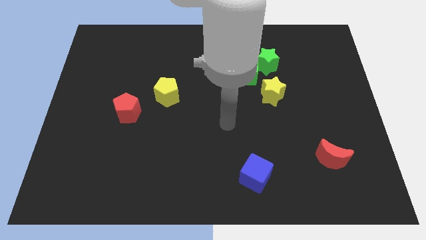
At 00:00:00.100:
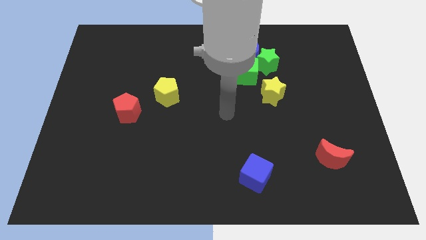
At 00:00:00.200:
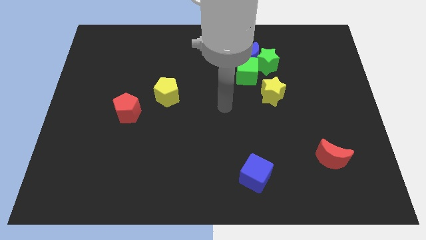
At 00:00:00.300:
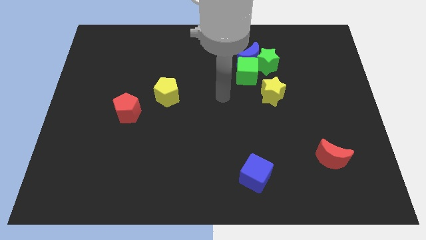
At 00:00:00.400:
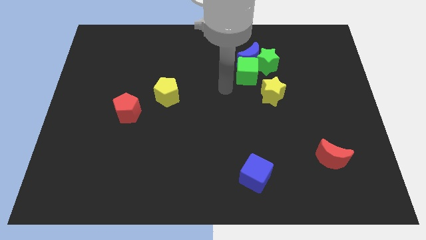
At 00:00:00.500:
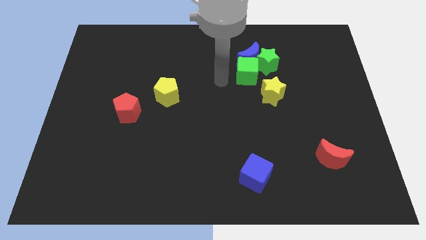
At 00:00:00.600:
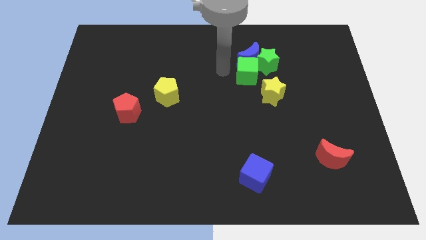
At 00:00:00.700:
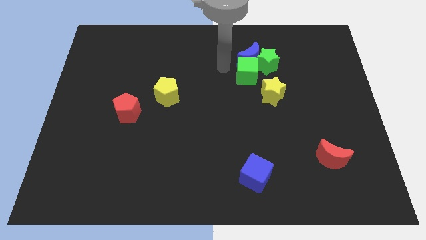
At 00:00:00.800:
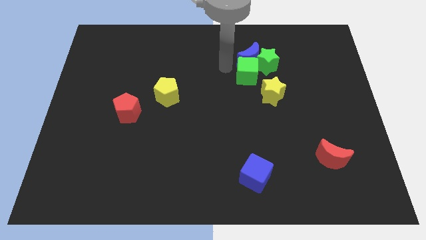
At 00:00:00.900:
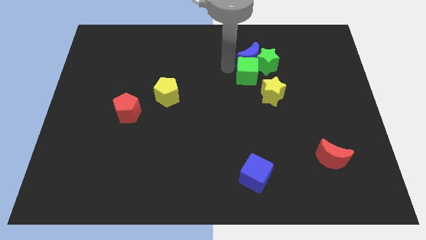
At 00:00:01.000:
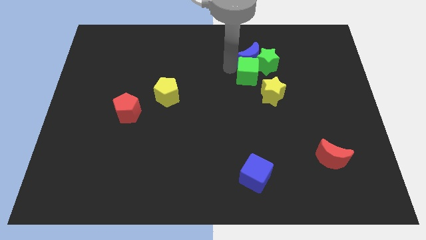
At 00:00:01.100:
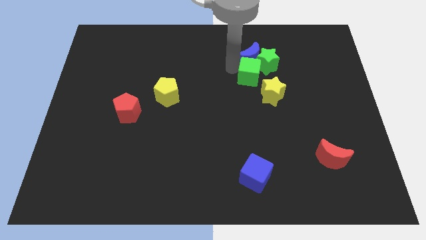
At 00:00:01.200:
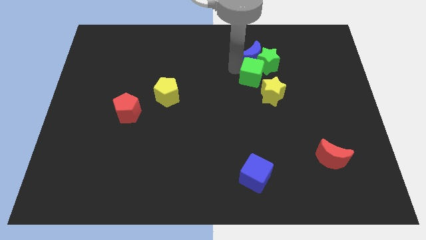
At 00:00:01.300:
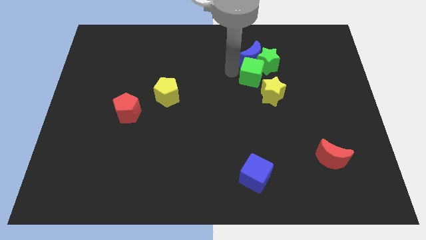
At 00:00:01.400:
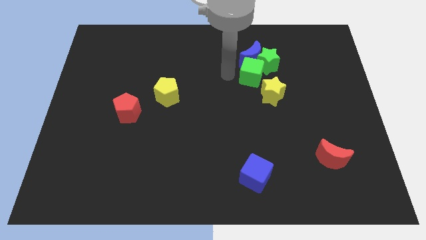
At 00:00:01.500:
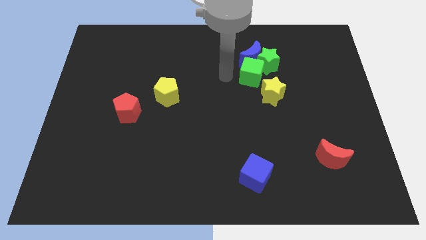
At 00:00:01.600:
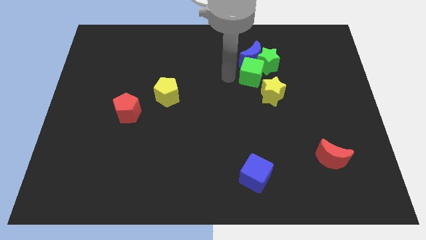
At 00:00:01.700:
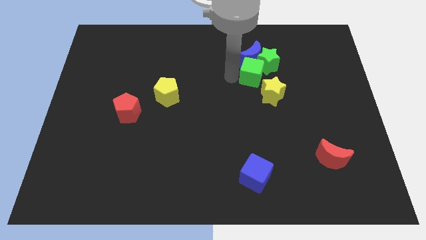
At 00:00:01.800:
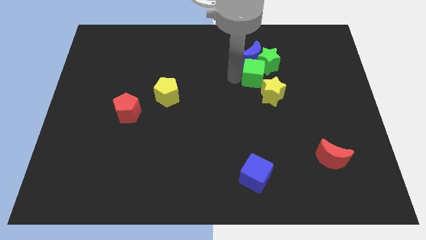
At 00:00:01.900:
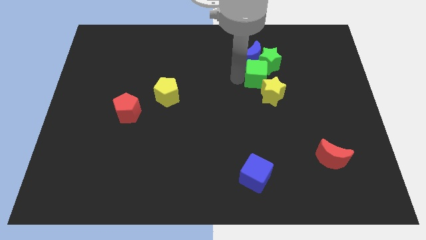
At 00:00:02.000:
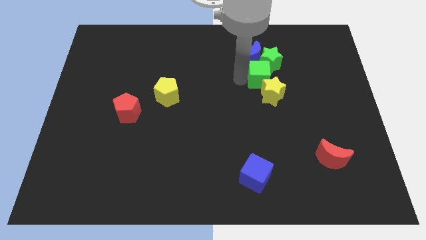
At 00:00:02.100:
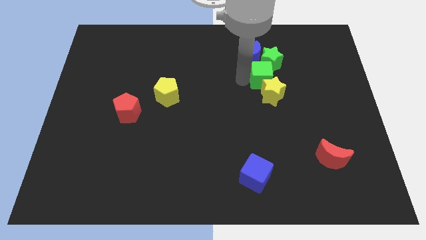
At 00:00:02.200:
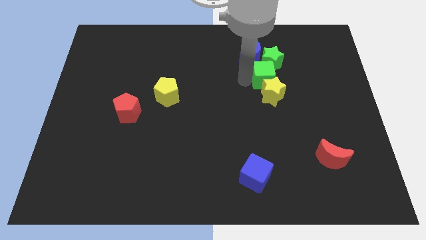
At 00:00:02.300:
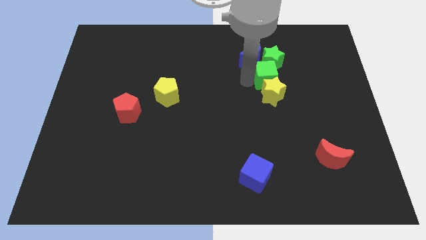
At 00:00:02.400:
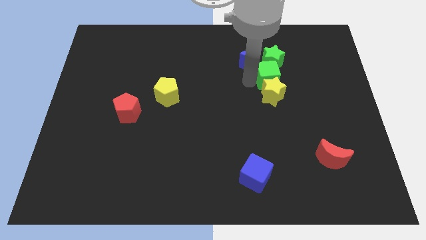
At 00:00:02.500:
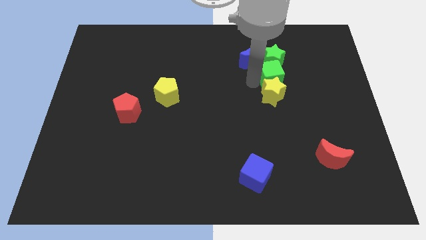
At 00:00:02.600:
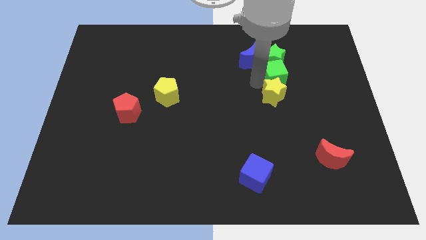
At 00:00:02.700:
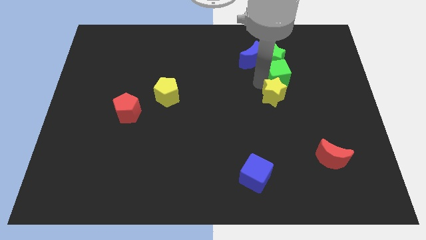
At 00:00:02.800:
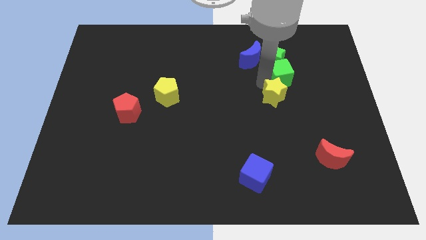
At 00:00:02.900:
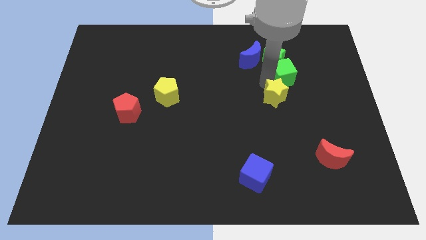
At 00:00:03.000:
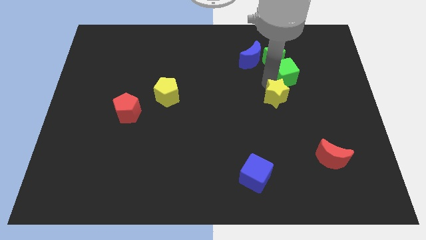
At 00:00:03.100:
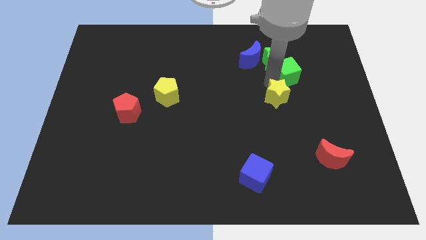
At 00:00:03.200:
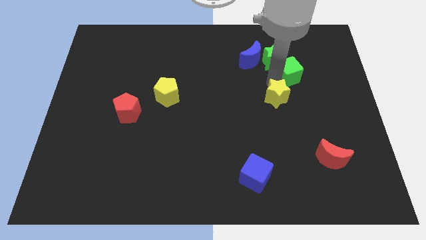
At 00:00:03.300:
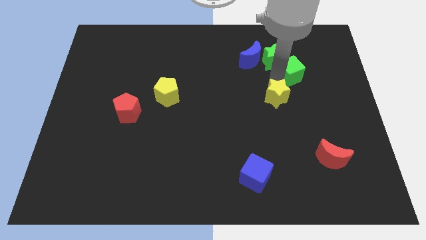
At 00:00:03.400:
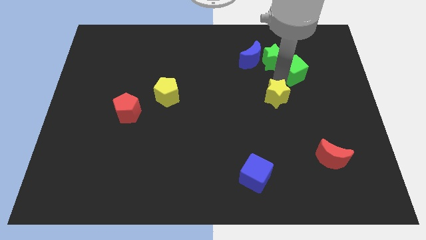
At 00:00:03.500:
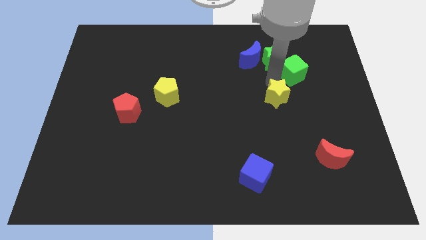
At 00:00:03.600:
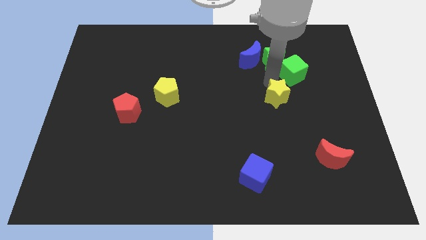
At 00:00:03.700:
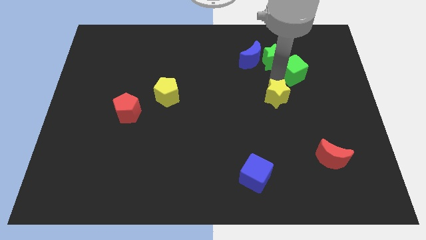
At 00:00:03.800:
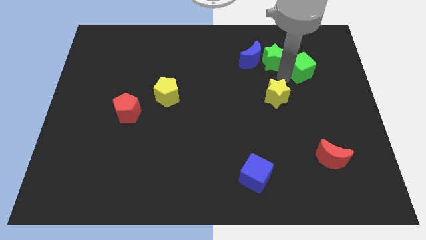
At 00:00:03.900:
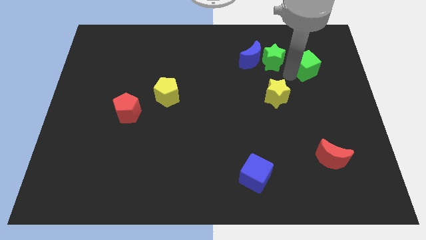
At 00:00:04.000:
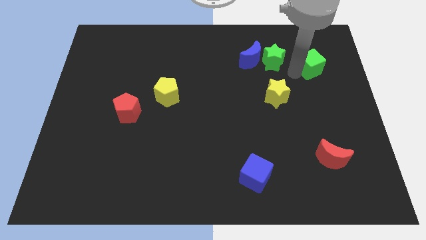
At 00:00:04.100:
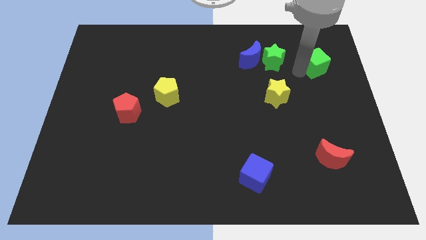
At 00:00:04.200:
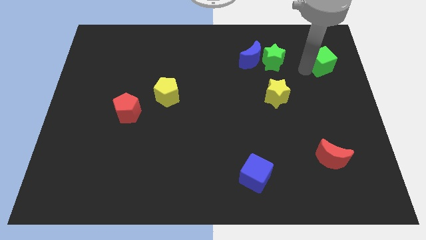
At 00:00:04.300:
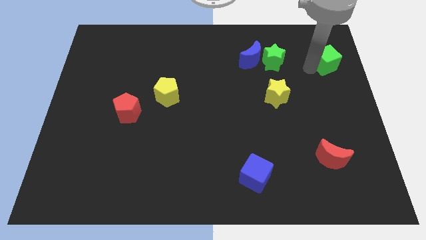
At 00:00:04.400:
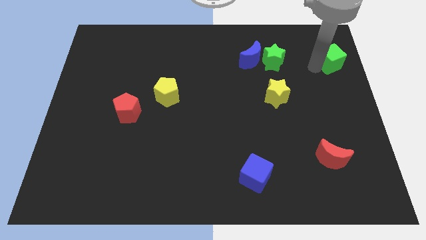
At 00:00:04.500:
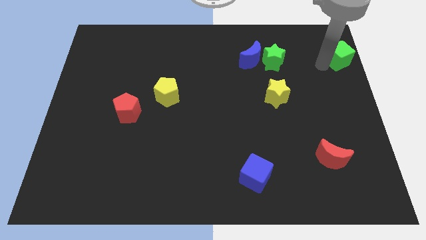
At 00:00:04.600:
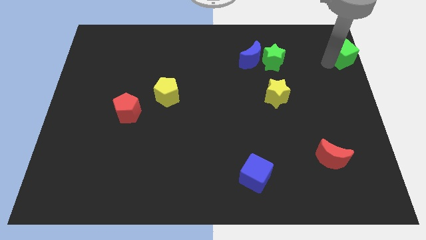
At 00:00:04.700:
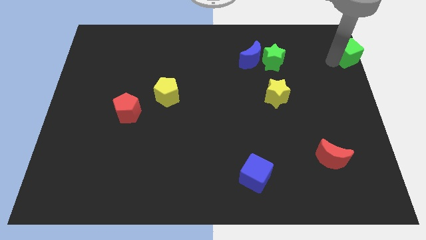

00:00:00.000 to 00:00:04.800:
slide the green cube to the top right corner

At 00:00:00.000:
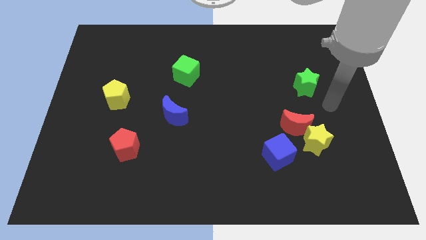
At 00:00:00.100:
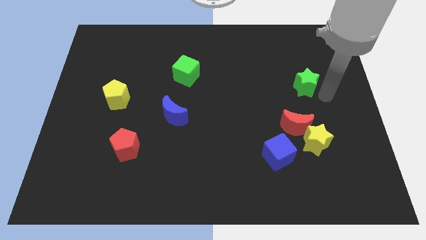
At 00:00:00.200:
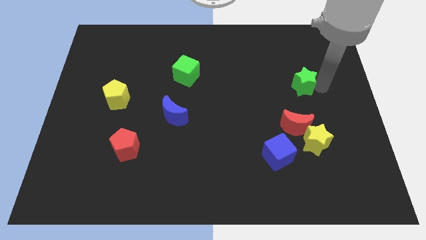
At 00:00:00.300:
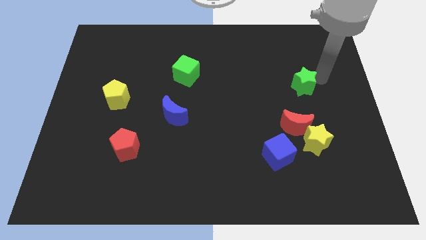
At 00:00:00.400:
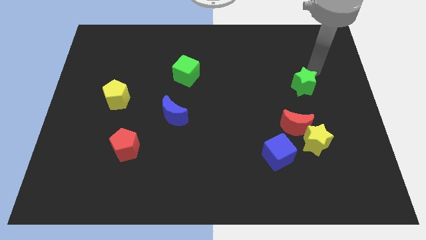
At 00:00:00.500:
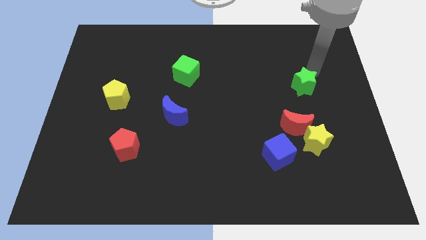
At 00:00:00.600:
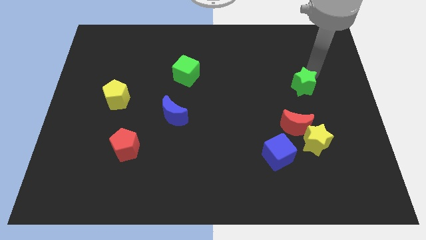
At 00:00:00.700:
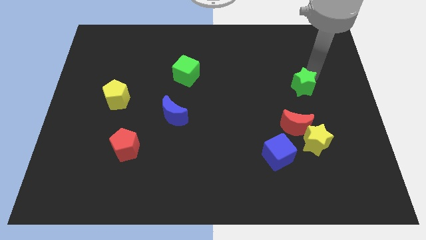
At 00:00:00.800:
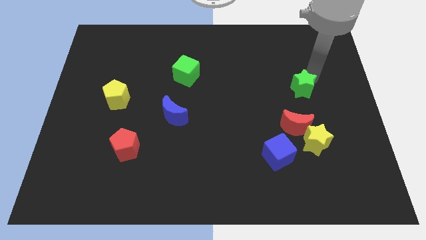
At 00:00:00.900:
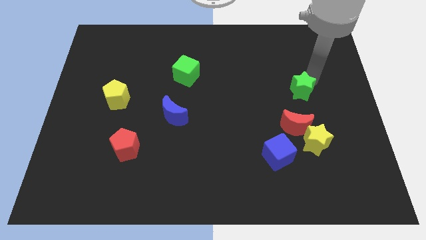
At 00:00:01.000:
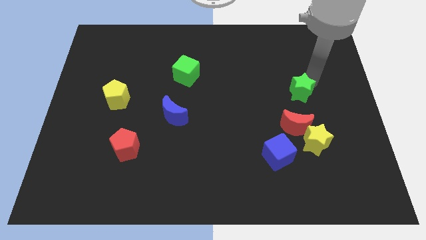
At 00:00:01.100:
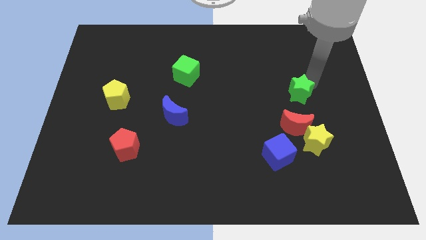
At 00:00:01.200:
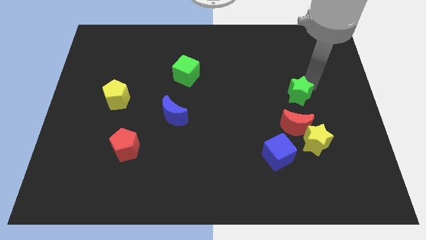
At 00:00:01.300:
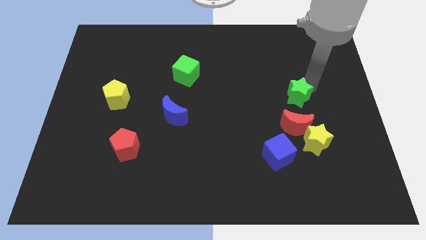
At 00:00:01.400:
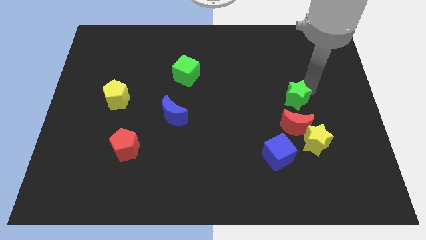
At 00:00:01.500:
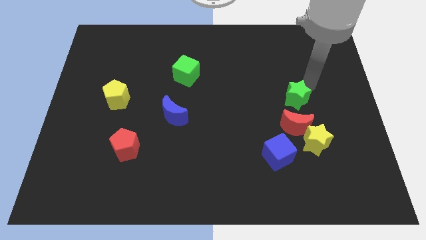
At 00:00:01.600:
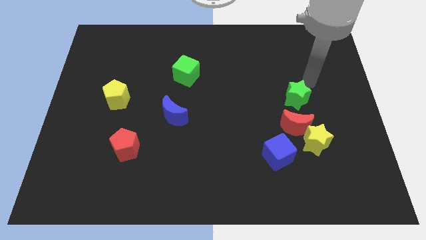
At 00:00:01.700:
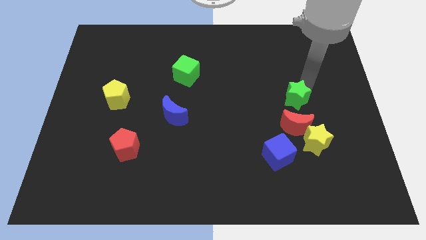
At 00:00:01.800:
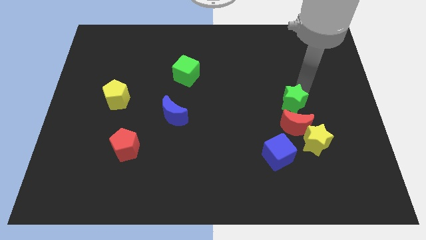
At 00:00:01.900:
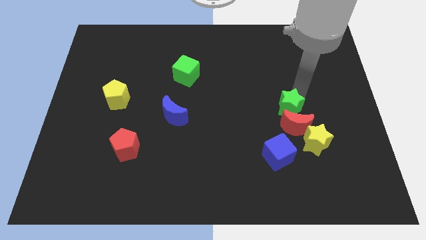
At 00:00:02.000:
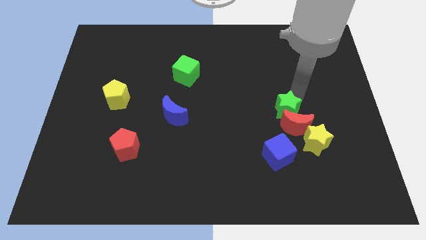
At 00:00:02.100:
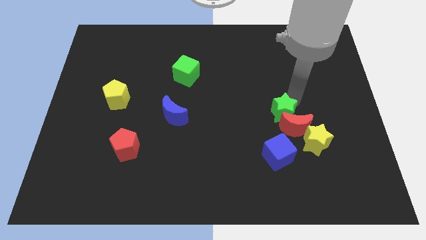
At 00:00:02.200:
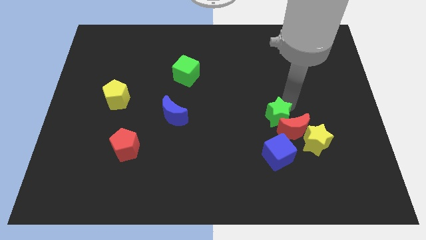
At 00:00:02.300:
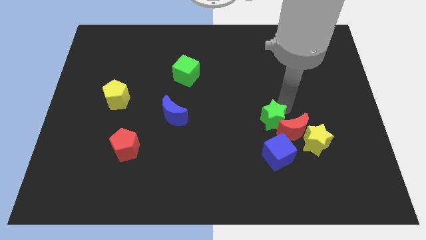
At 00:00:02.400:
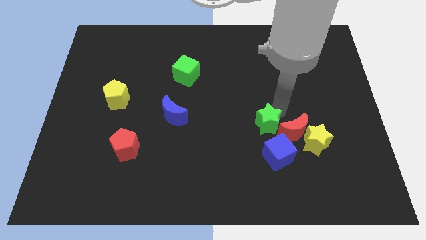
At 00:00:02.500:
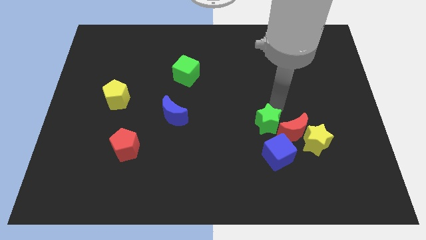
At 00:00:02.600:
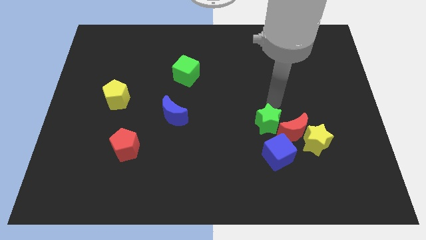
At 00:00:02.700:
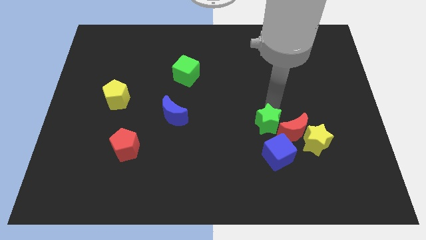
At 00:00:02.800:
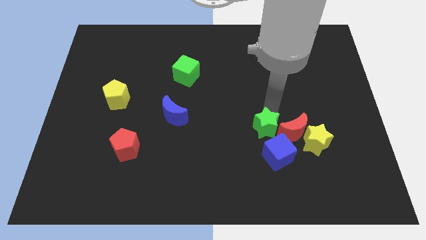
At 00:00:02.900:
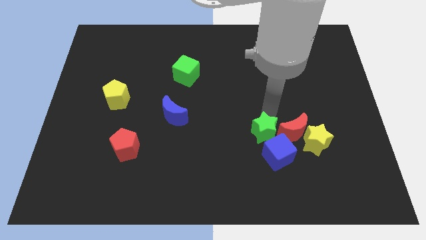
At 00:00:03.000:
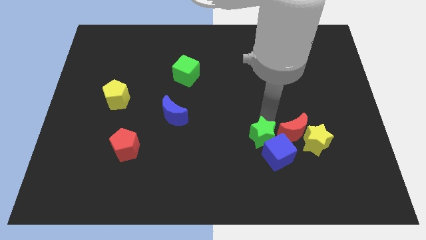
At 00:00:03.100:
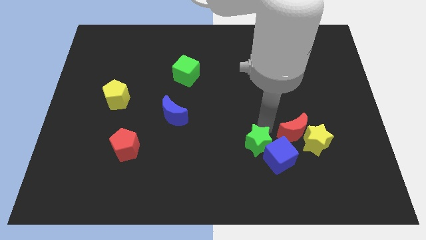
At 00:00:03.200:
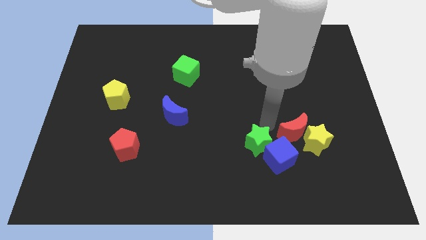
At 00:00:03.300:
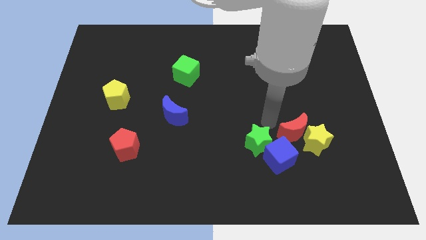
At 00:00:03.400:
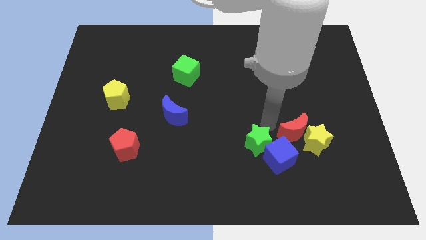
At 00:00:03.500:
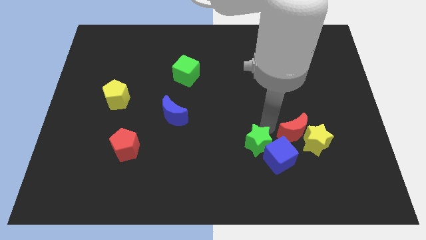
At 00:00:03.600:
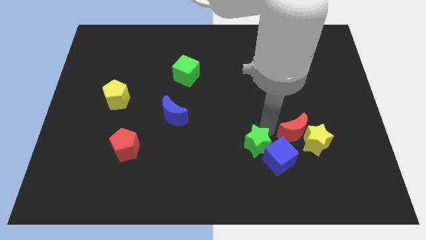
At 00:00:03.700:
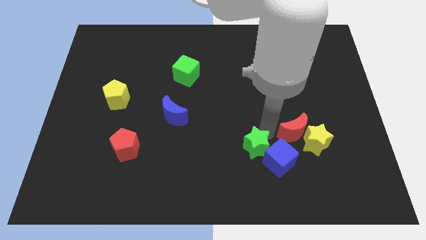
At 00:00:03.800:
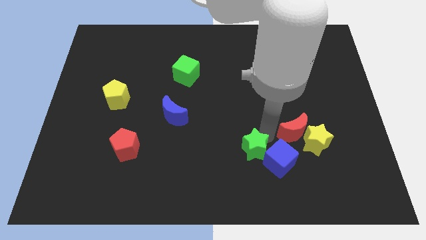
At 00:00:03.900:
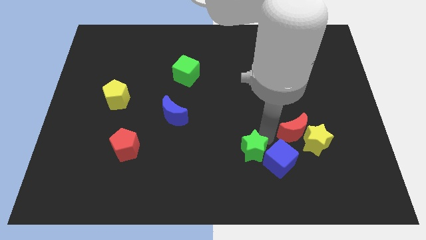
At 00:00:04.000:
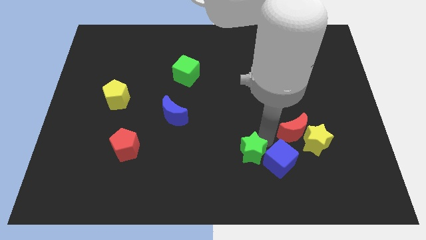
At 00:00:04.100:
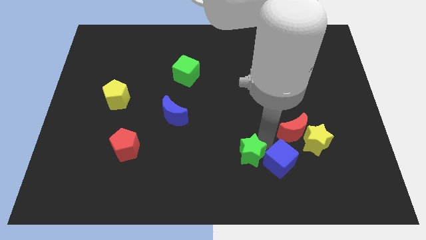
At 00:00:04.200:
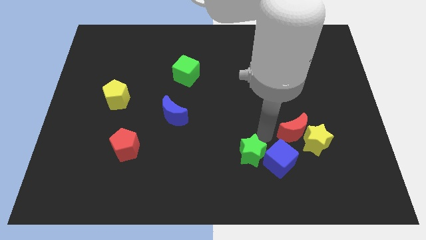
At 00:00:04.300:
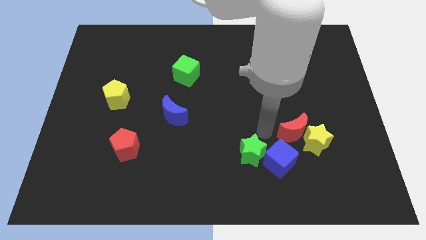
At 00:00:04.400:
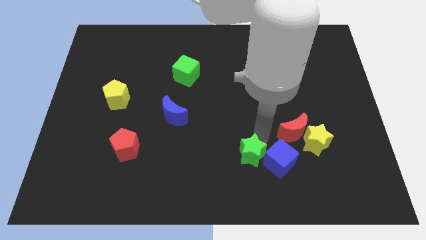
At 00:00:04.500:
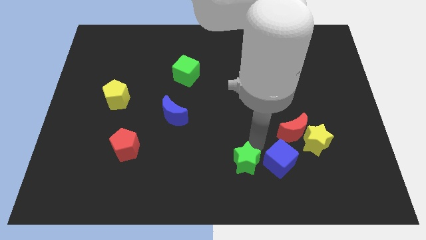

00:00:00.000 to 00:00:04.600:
push the green star to the bottom
